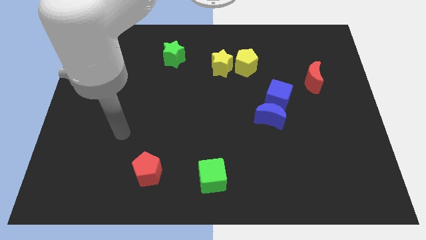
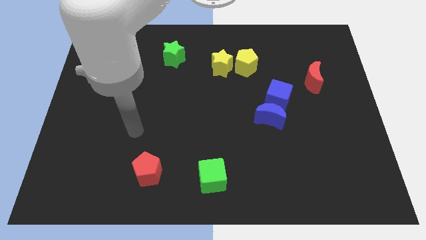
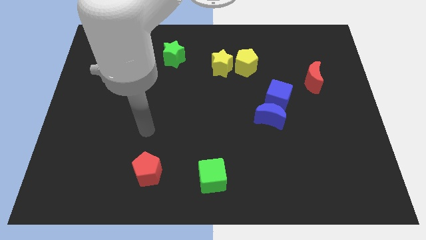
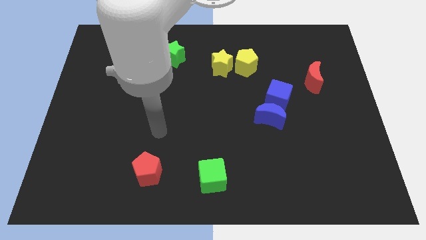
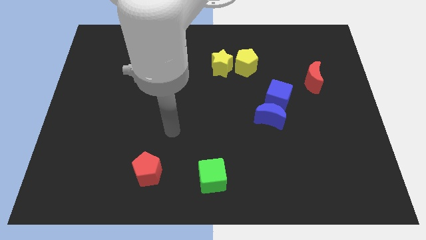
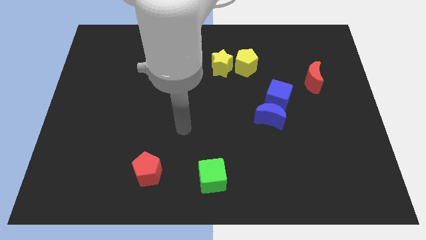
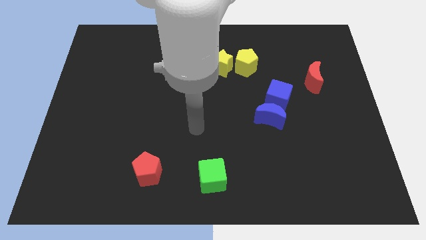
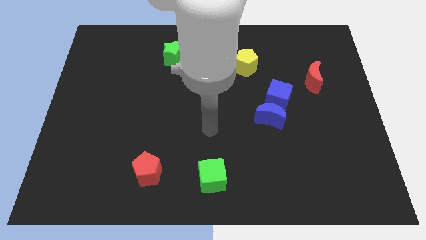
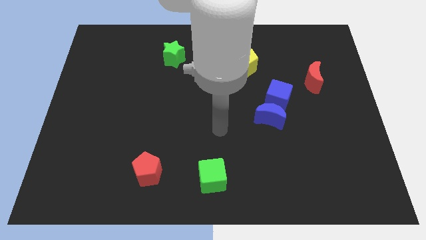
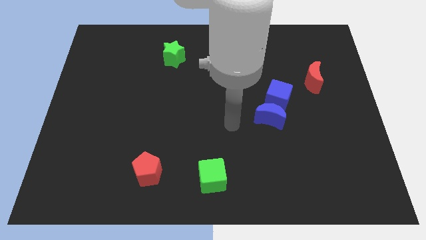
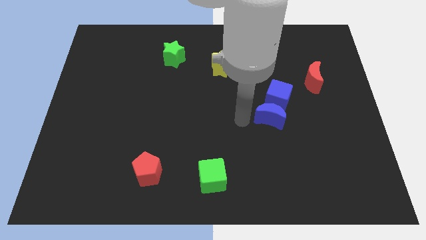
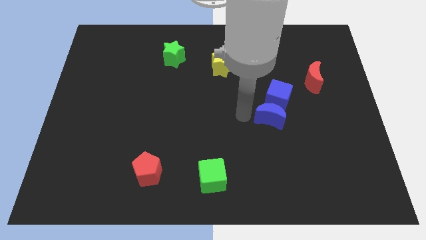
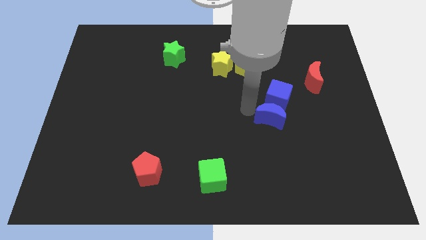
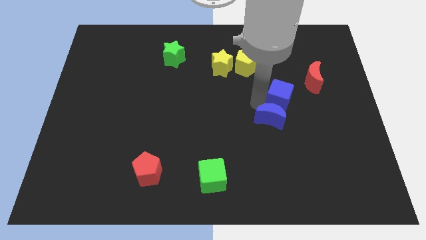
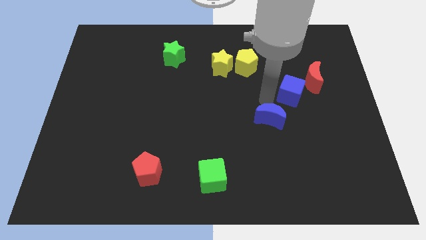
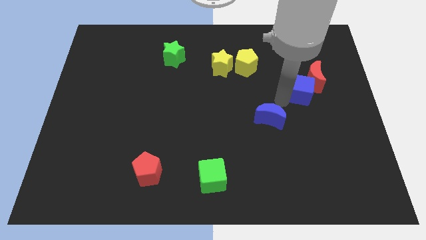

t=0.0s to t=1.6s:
separate the blue moon from the blue cube

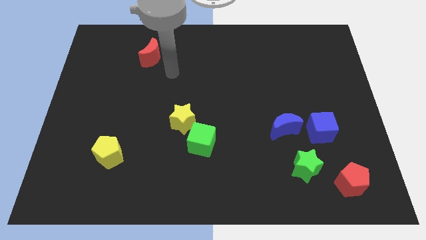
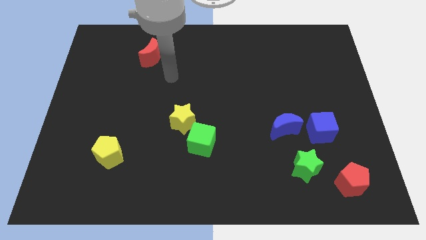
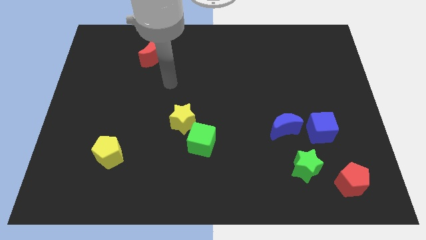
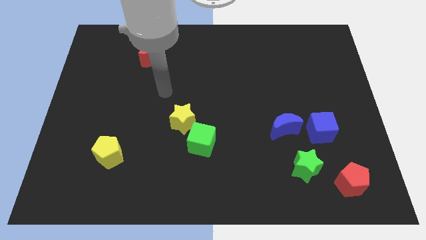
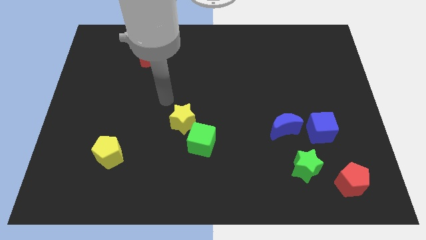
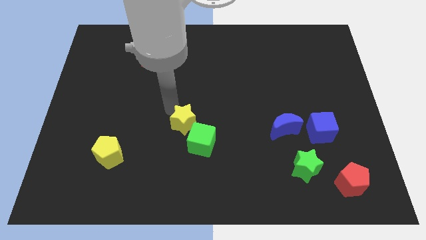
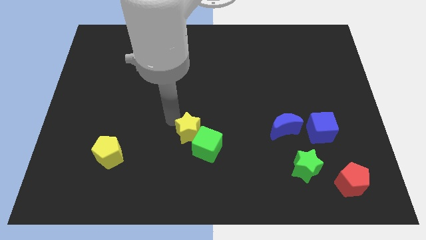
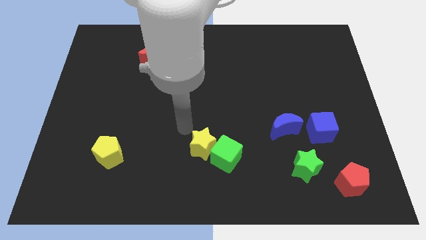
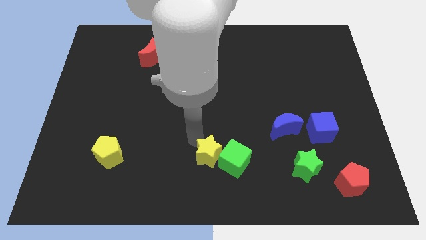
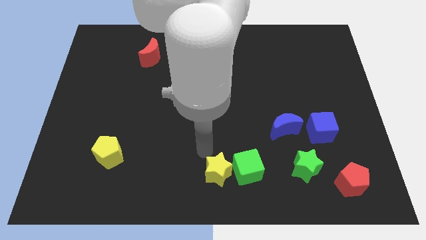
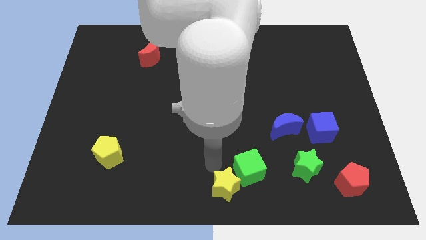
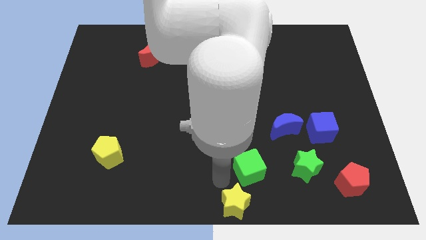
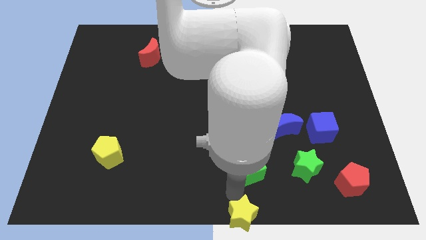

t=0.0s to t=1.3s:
move the green cube away from the yellow star

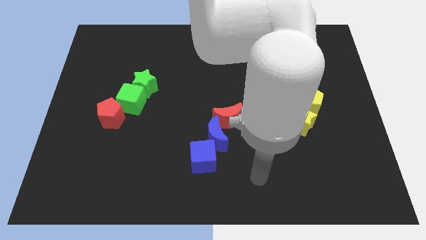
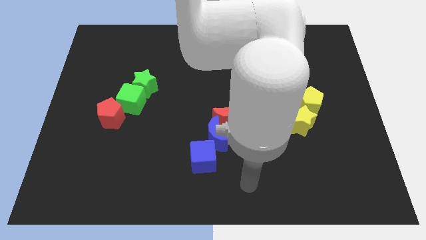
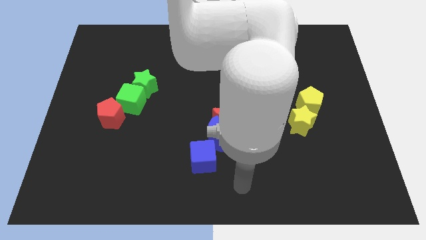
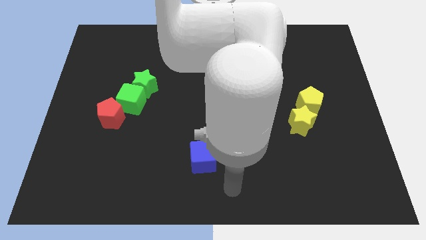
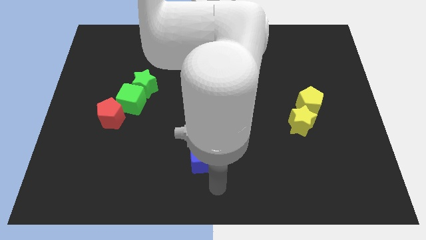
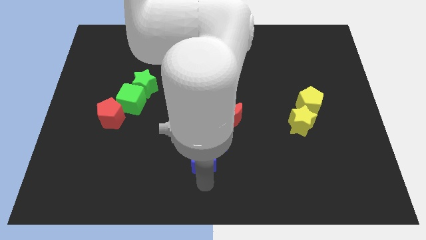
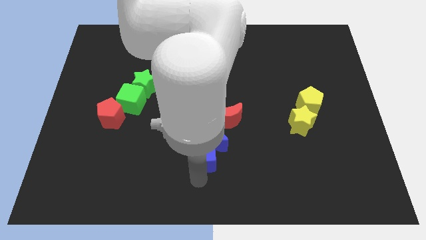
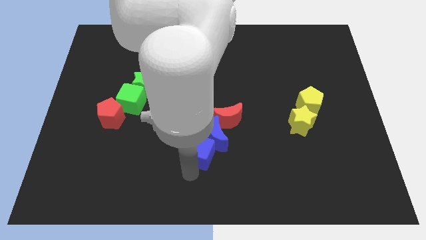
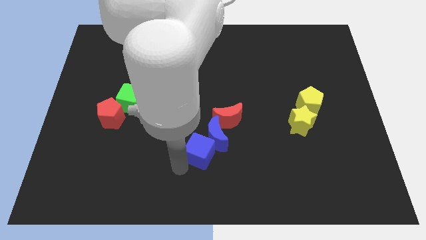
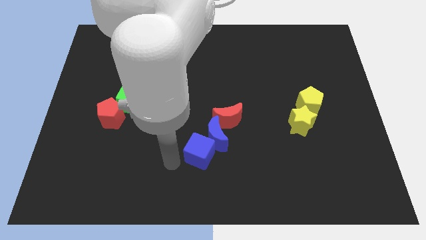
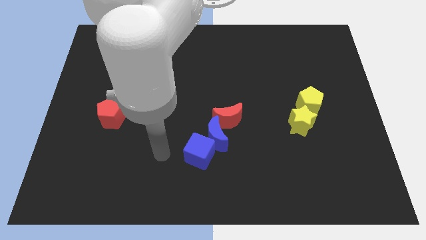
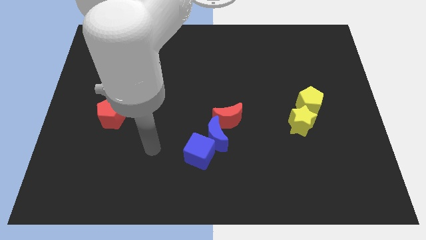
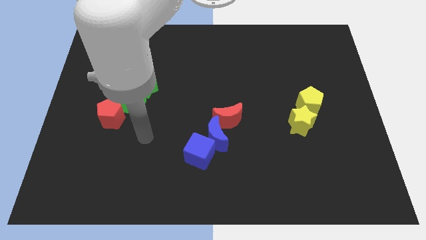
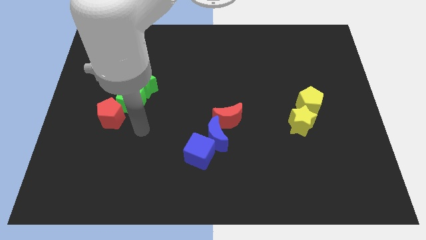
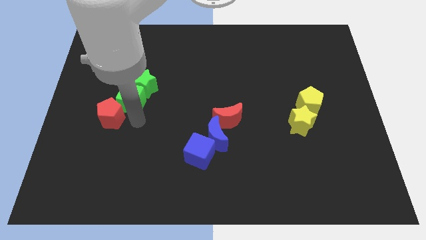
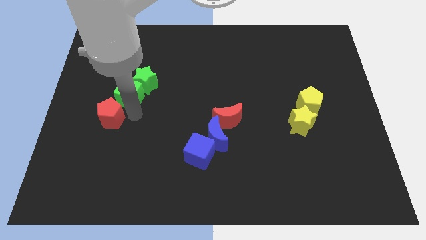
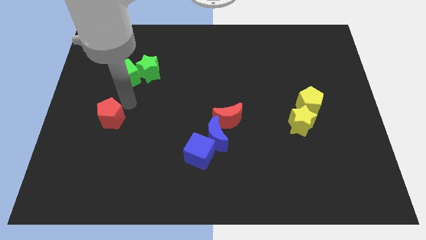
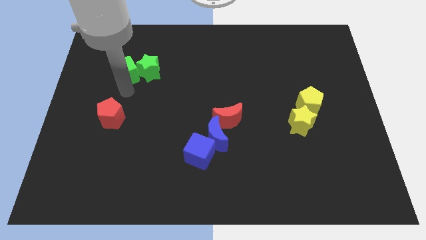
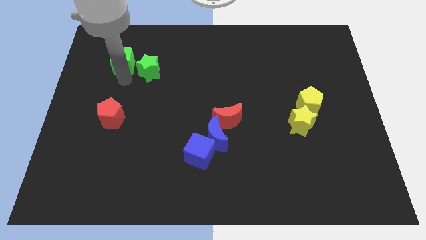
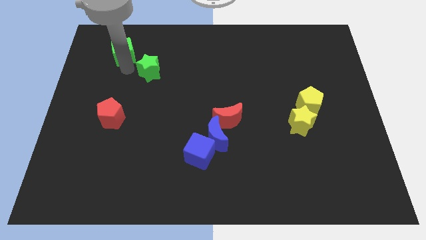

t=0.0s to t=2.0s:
separate the green star from the green cube

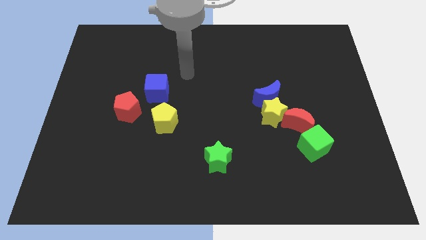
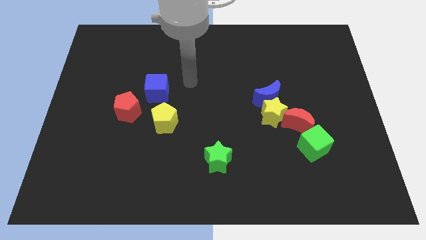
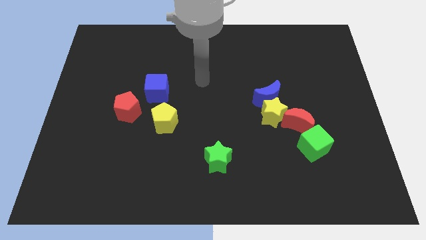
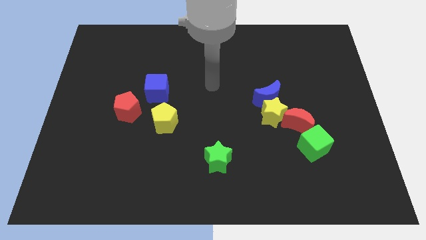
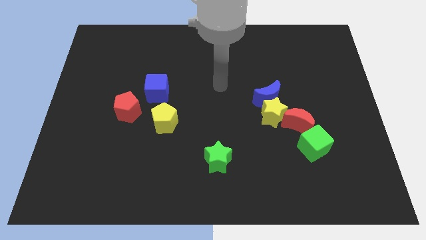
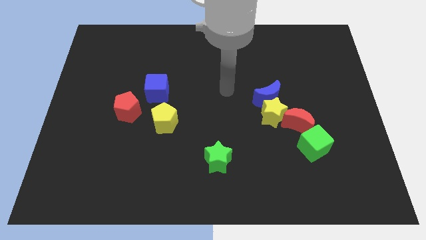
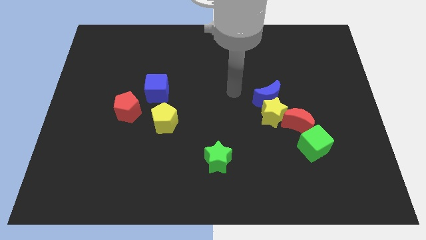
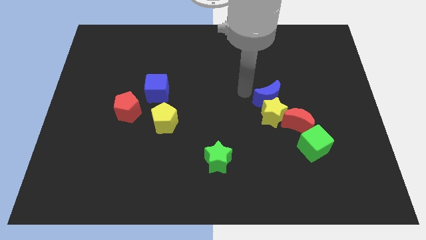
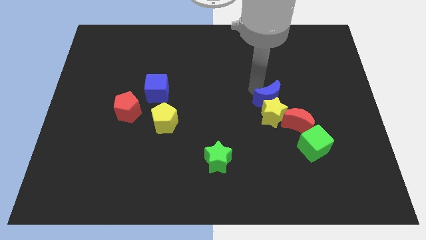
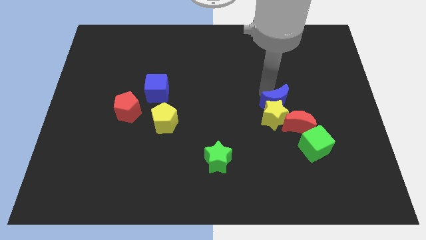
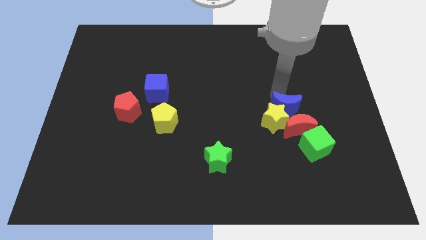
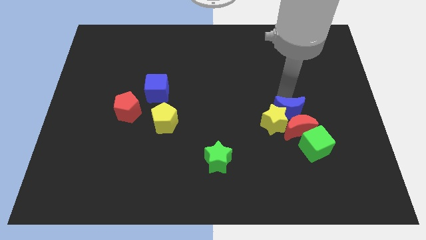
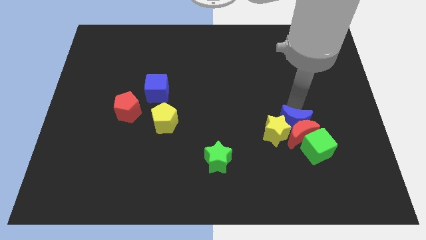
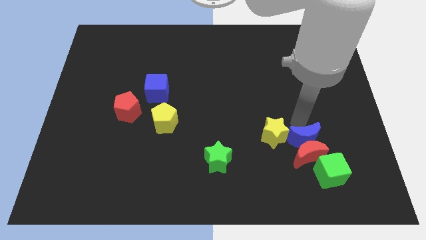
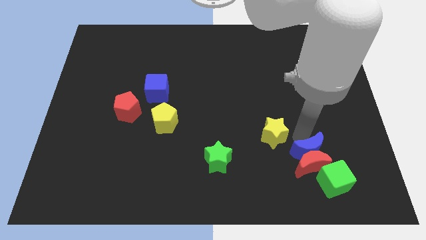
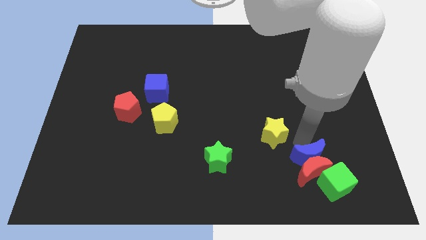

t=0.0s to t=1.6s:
move the yellow star away from the blue moon and red moon

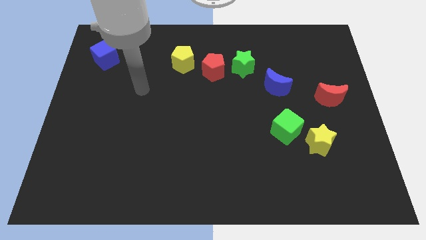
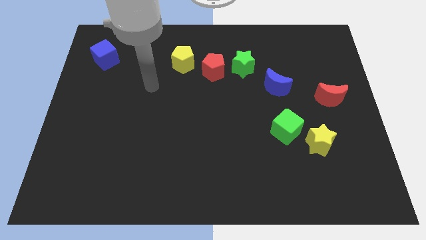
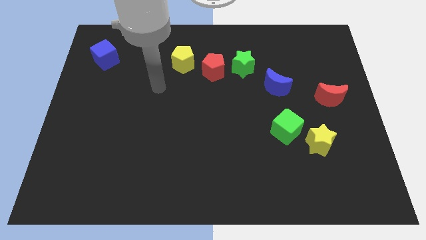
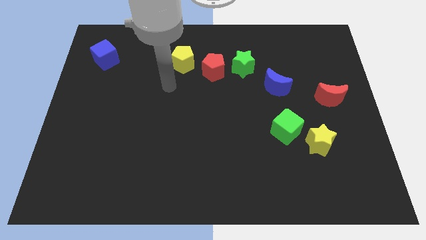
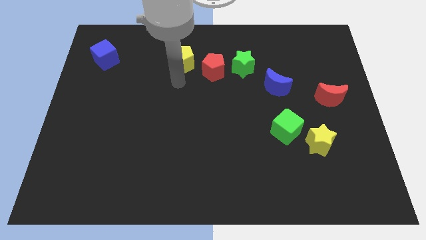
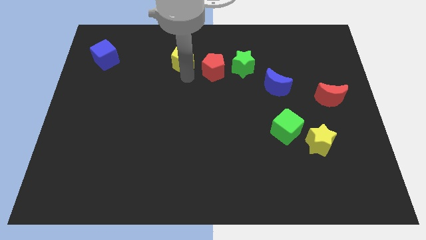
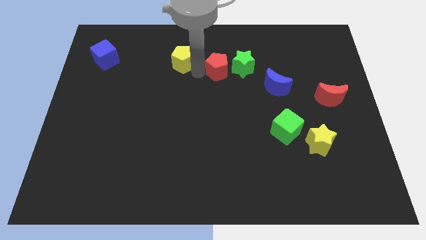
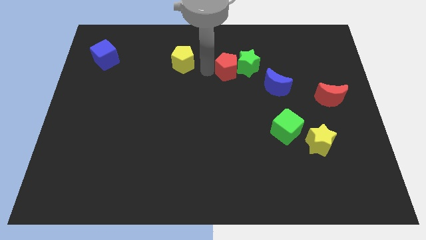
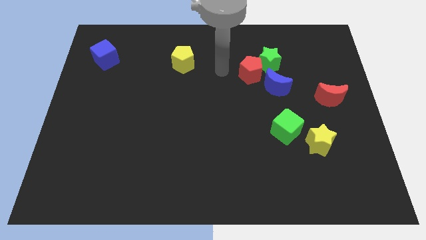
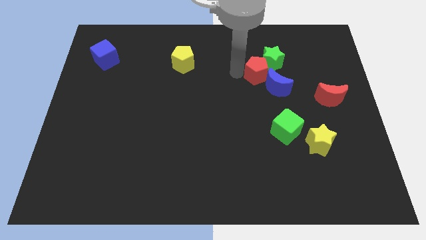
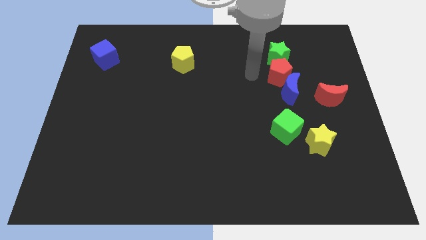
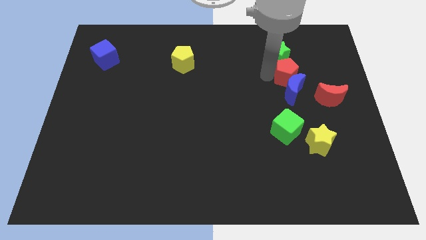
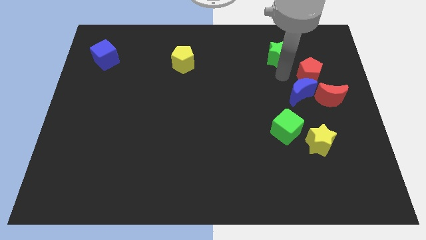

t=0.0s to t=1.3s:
separate the green star from the red pentagon

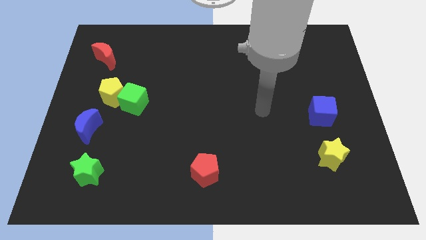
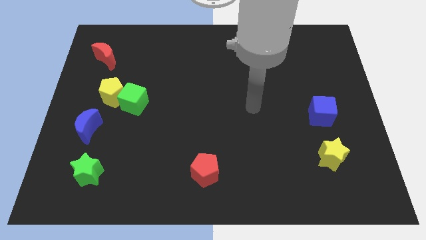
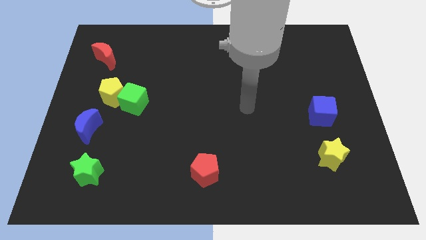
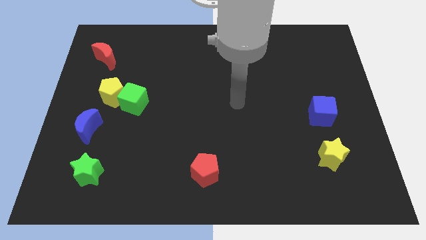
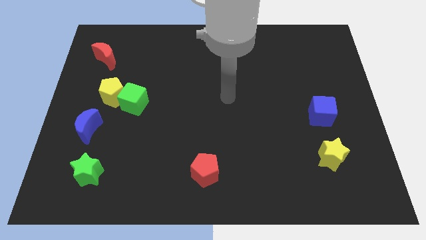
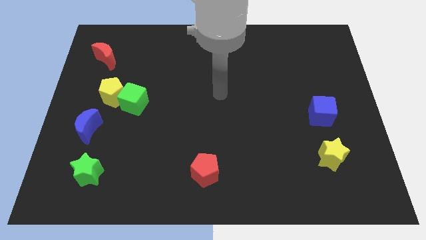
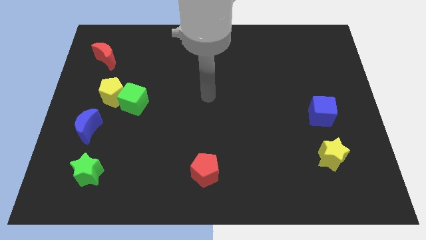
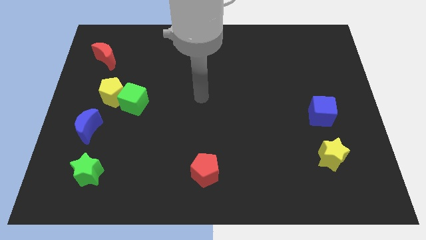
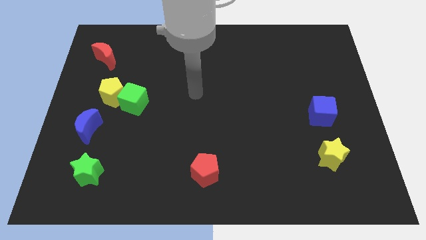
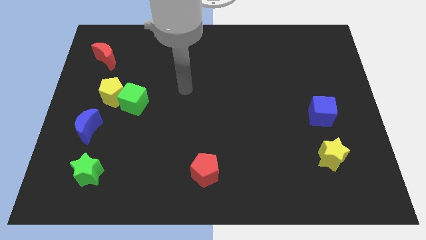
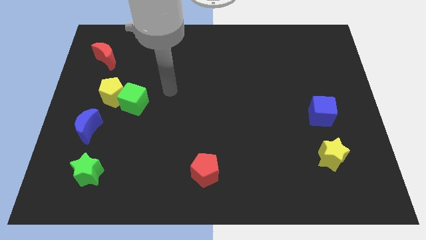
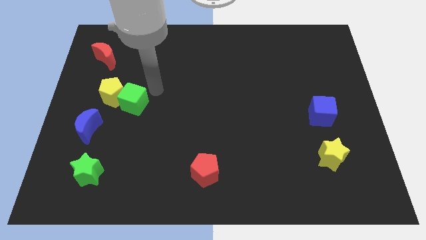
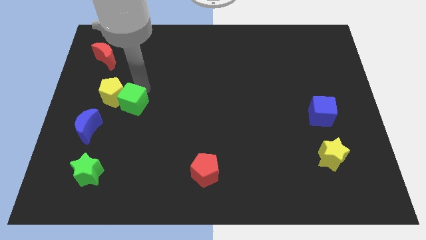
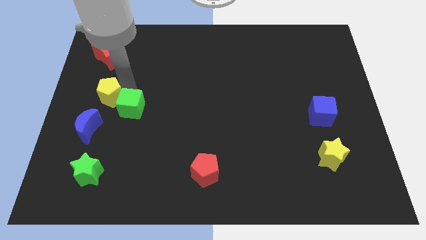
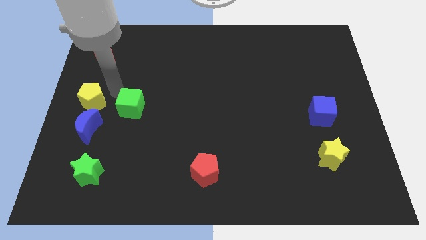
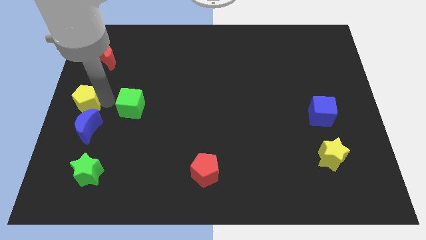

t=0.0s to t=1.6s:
separate the green cube from the yellow pentagon
